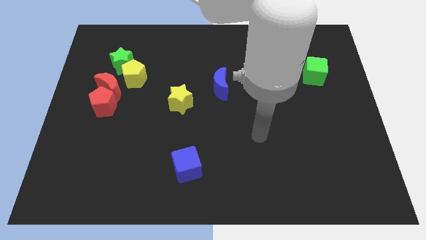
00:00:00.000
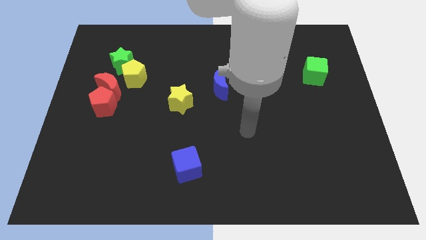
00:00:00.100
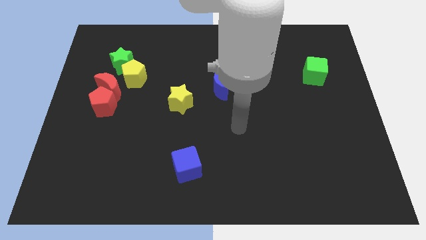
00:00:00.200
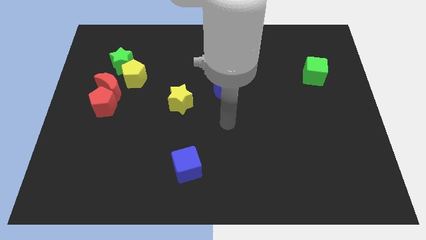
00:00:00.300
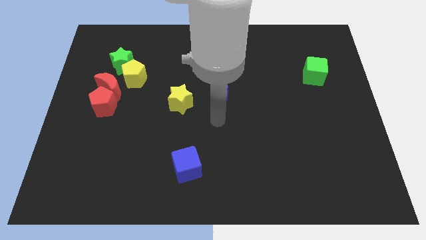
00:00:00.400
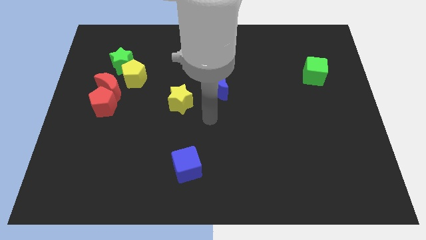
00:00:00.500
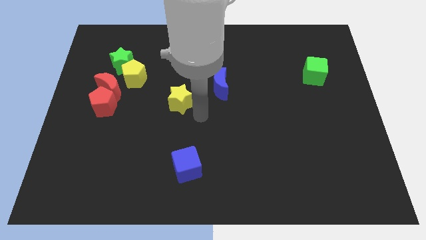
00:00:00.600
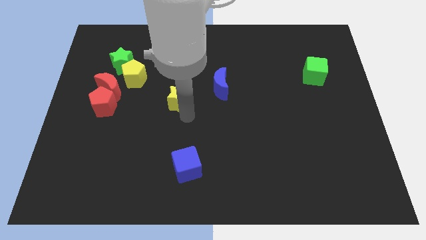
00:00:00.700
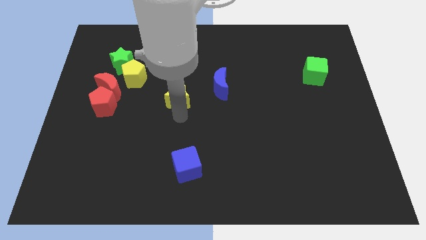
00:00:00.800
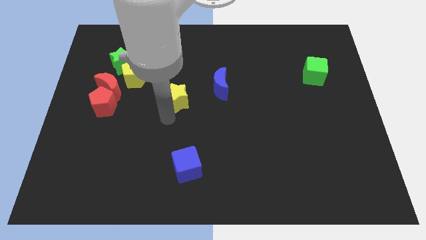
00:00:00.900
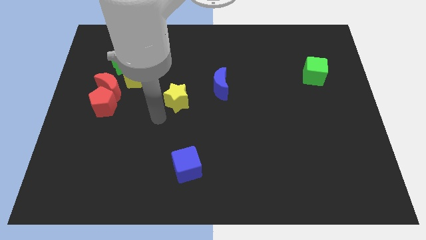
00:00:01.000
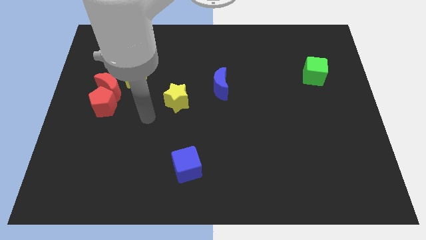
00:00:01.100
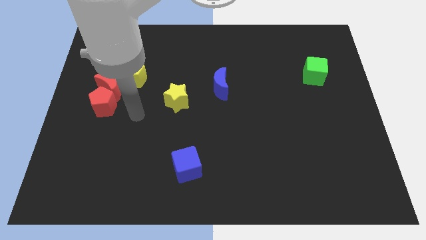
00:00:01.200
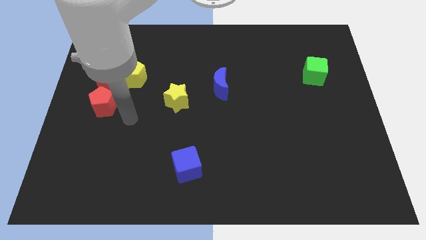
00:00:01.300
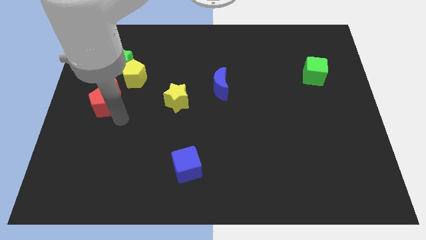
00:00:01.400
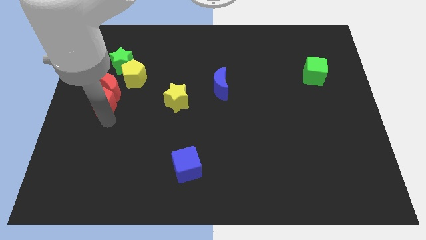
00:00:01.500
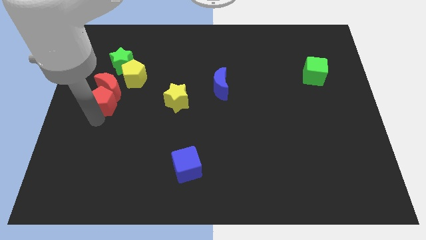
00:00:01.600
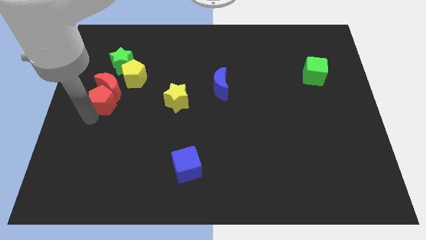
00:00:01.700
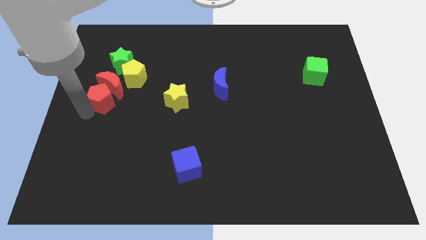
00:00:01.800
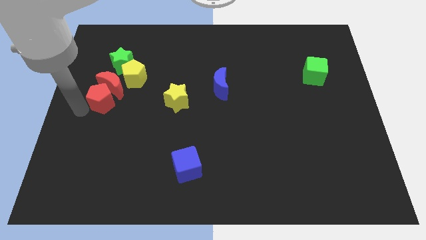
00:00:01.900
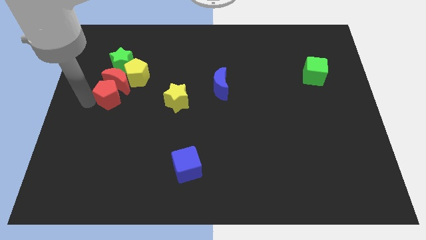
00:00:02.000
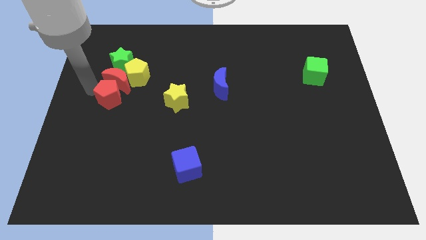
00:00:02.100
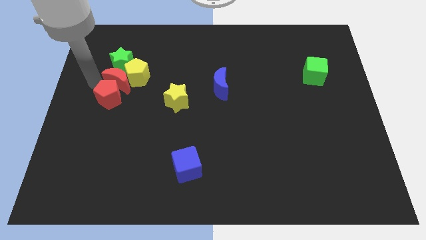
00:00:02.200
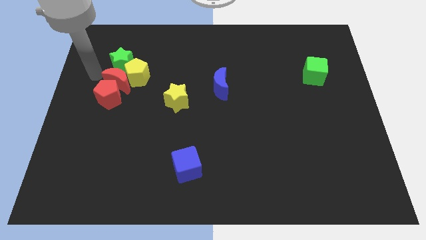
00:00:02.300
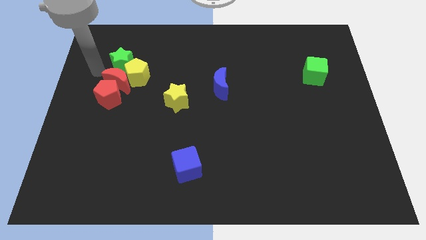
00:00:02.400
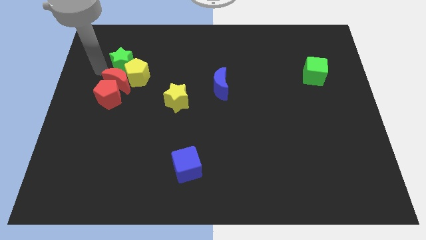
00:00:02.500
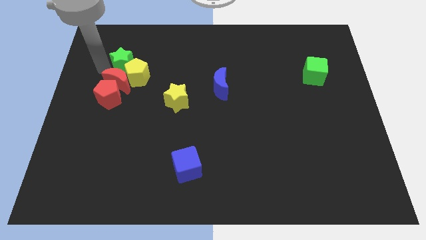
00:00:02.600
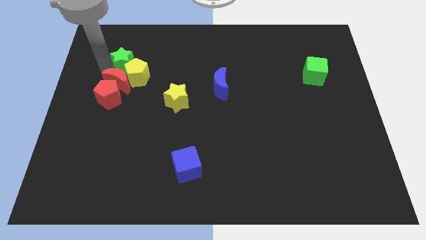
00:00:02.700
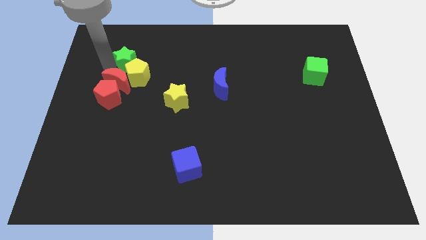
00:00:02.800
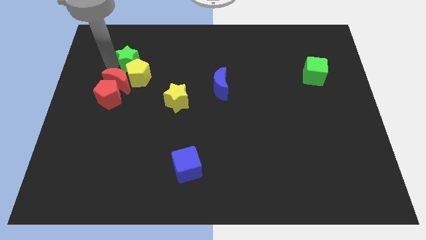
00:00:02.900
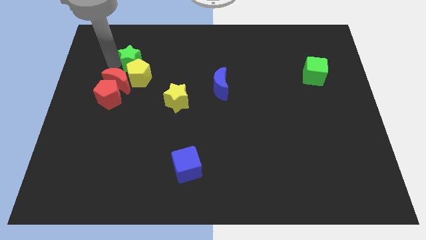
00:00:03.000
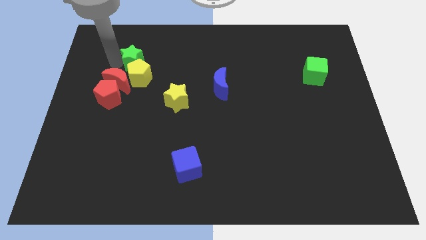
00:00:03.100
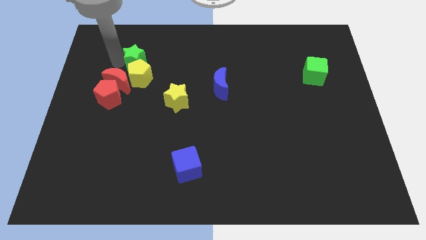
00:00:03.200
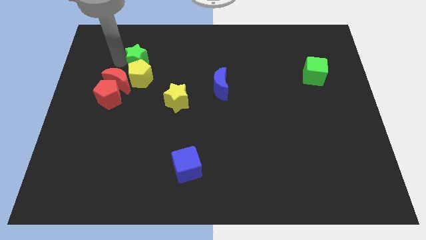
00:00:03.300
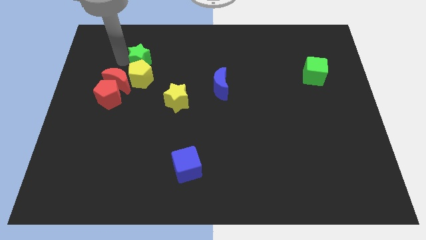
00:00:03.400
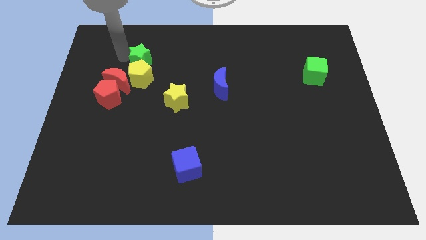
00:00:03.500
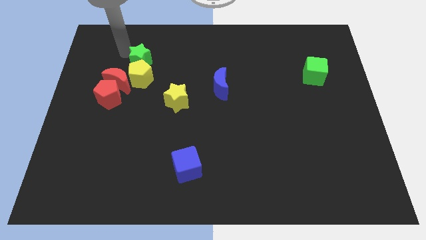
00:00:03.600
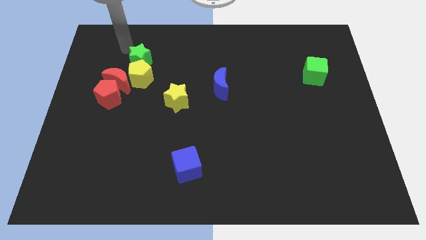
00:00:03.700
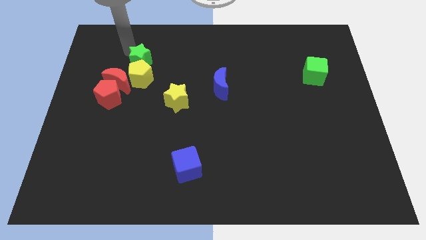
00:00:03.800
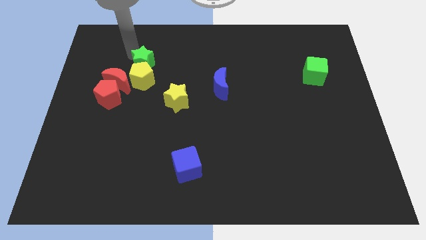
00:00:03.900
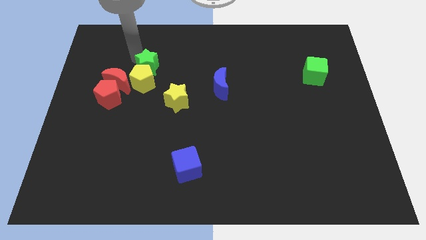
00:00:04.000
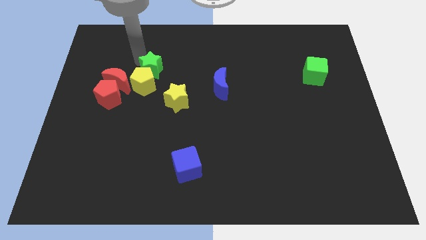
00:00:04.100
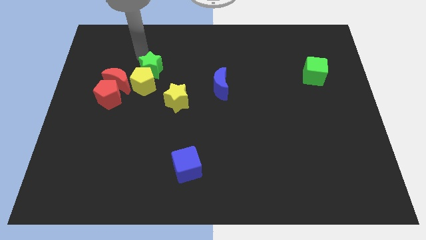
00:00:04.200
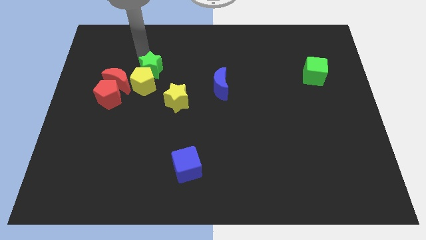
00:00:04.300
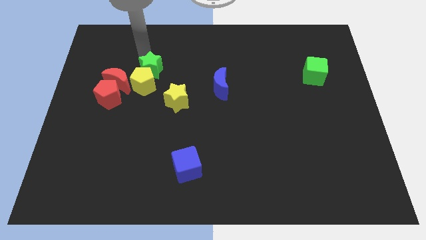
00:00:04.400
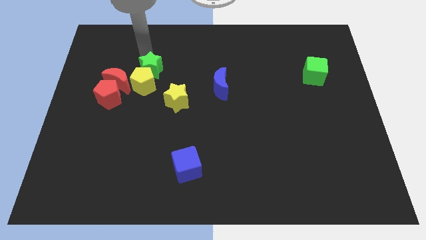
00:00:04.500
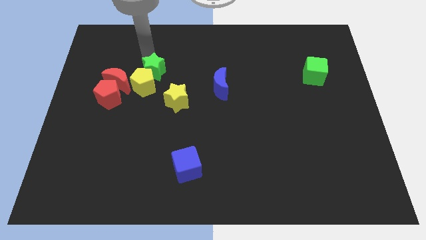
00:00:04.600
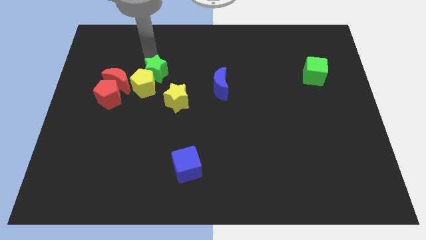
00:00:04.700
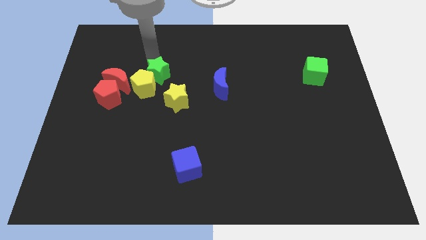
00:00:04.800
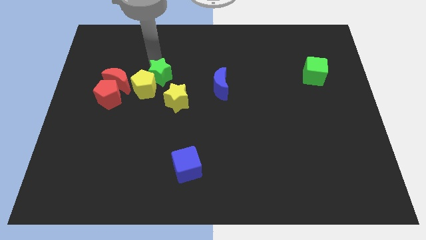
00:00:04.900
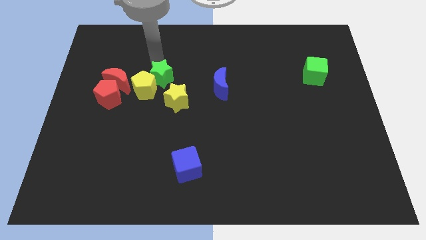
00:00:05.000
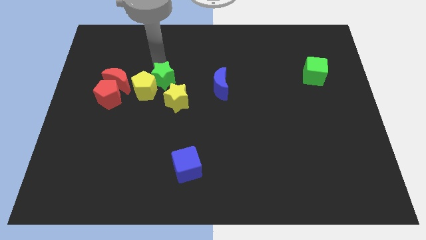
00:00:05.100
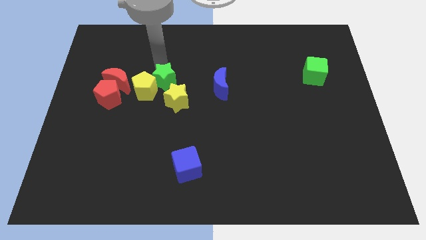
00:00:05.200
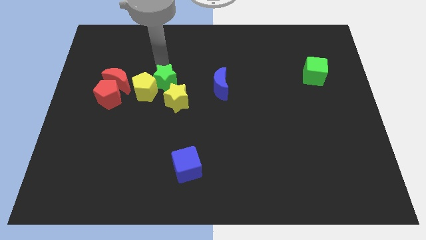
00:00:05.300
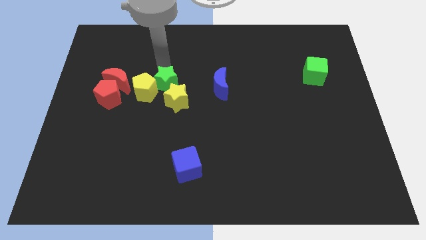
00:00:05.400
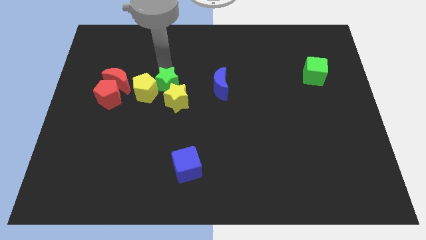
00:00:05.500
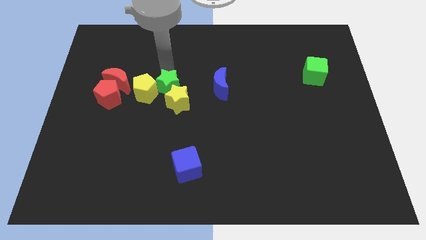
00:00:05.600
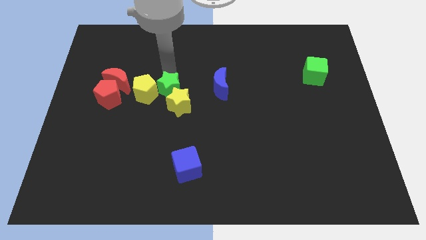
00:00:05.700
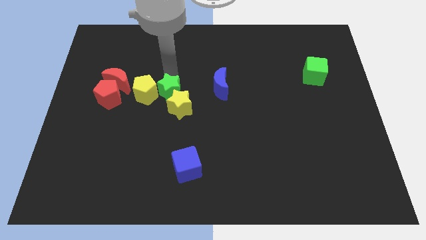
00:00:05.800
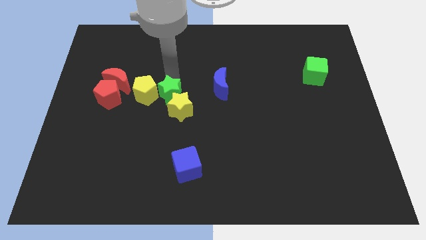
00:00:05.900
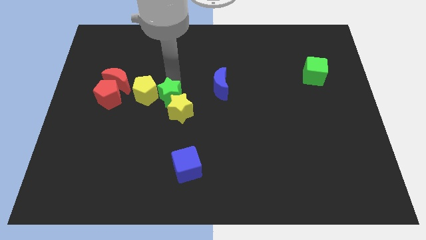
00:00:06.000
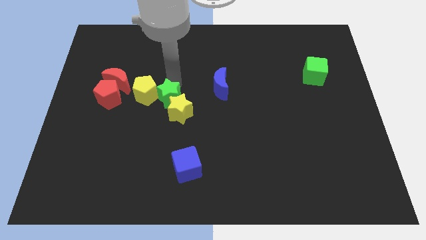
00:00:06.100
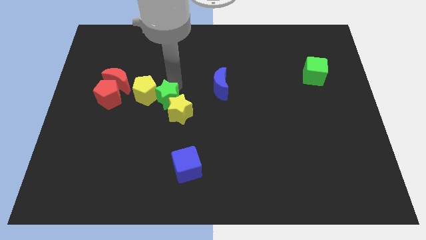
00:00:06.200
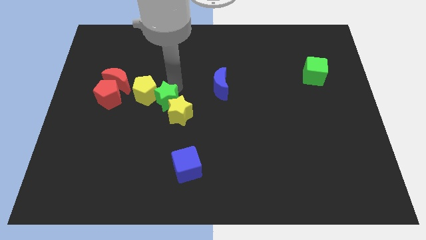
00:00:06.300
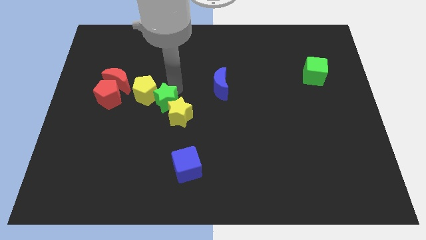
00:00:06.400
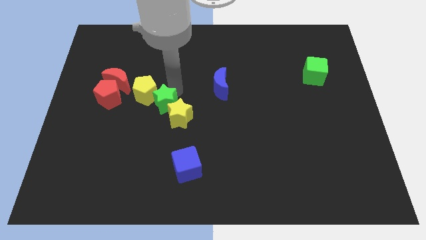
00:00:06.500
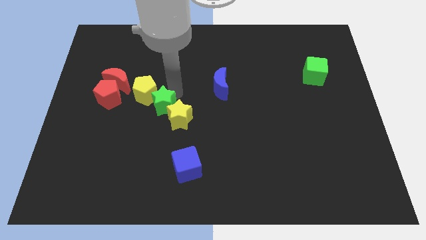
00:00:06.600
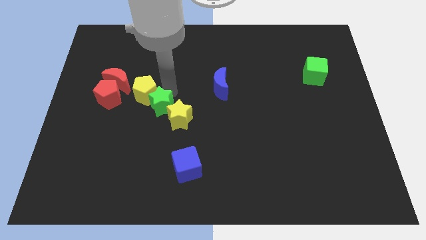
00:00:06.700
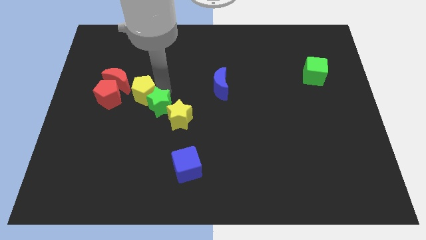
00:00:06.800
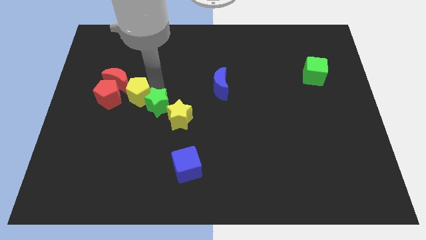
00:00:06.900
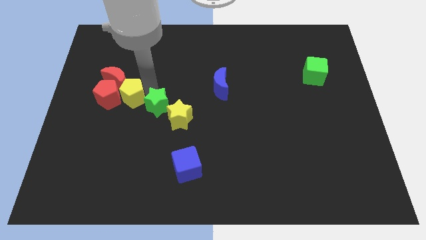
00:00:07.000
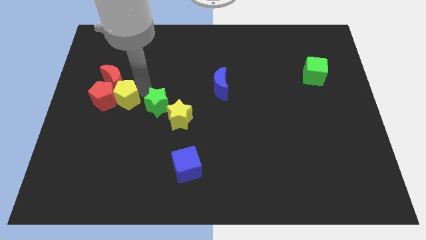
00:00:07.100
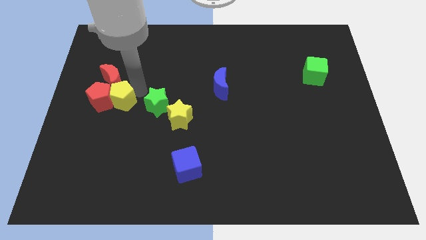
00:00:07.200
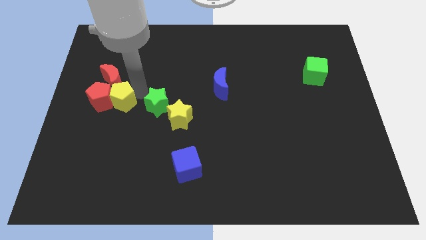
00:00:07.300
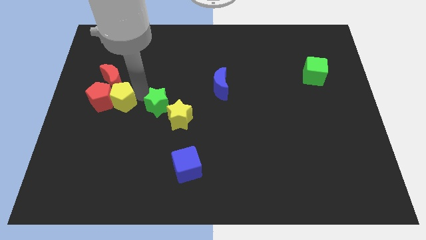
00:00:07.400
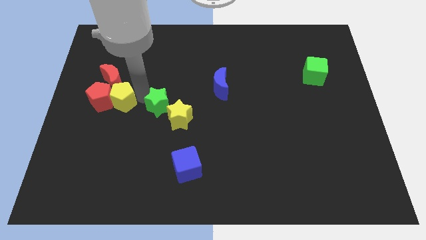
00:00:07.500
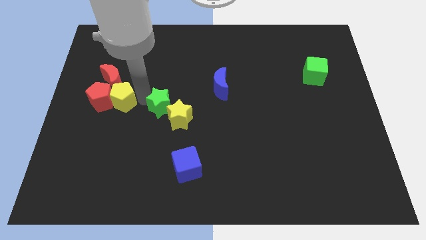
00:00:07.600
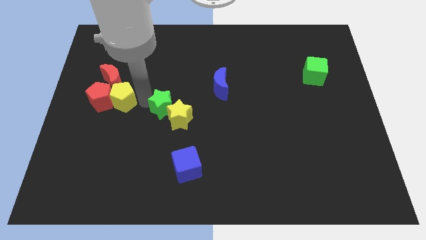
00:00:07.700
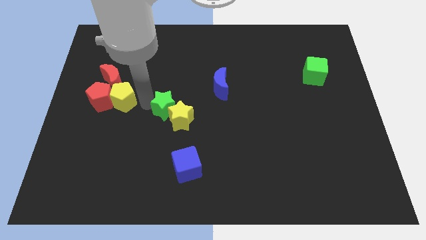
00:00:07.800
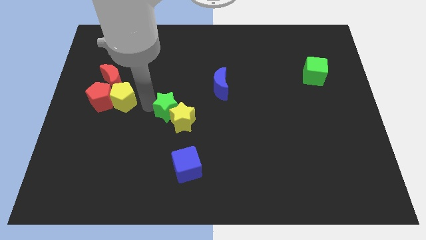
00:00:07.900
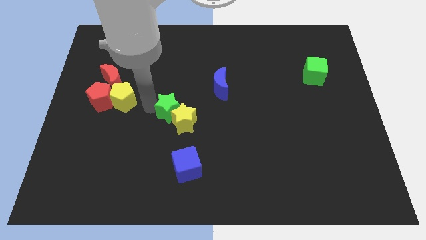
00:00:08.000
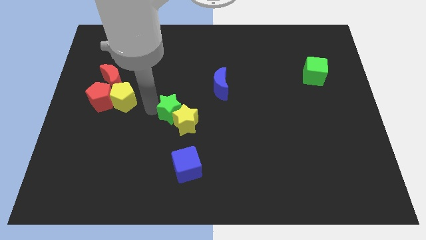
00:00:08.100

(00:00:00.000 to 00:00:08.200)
push the green star downwards and then to the right

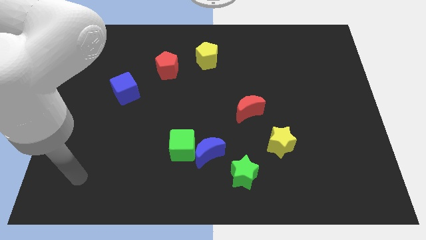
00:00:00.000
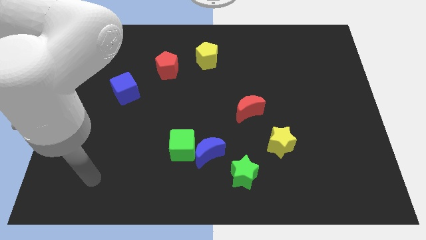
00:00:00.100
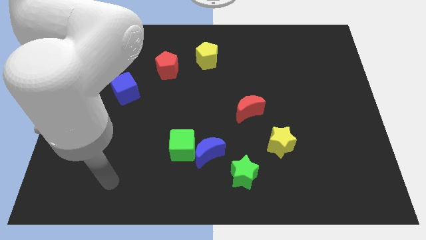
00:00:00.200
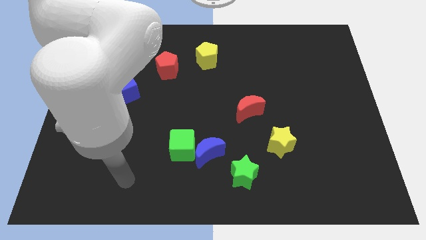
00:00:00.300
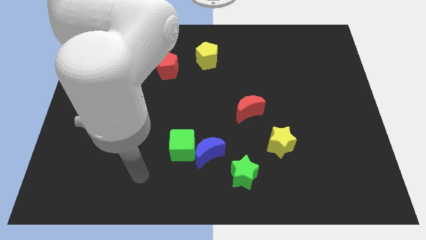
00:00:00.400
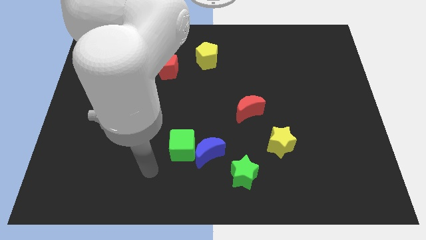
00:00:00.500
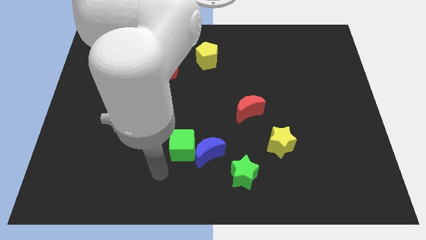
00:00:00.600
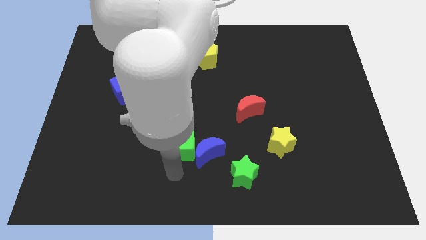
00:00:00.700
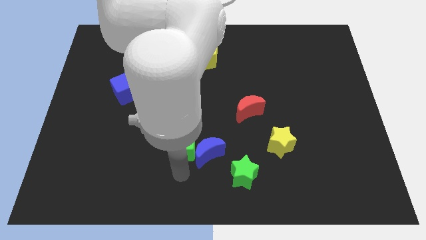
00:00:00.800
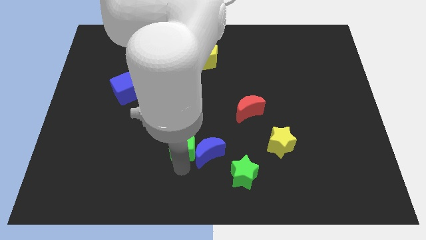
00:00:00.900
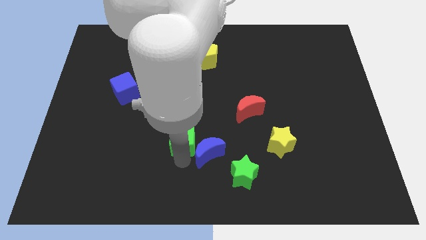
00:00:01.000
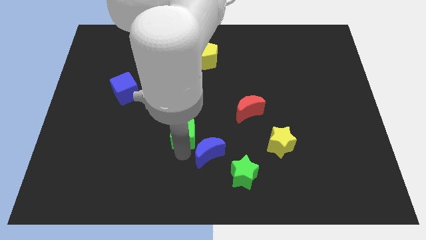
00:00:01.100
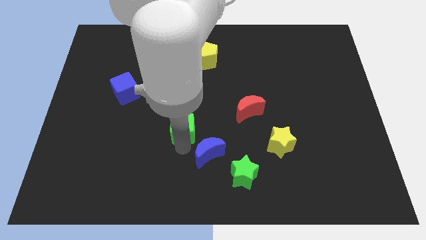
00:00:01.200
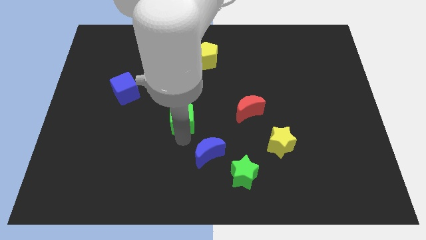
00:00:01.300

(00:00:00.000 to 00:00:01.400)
slightly slide the green cube up
